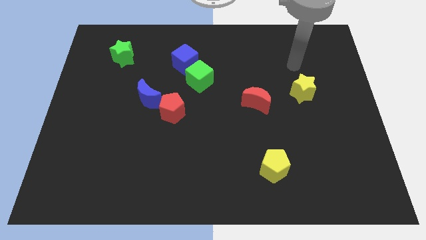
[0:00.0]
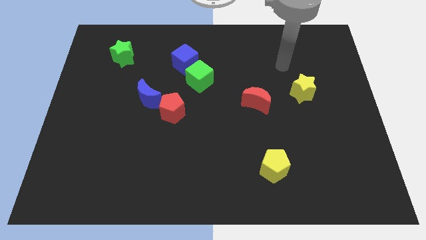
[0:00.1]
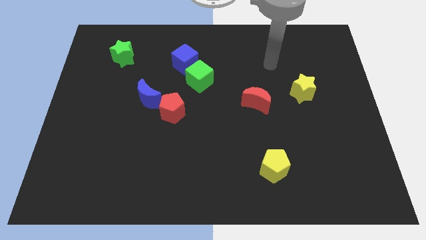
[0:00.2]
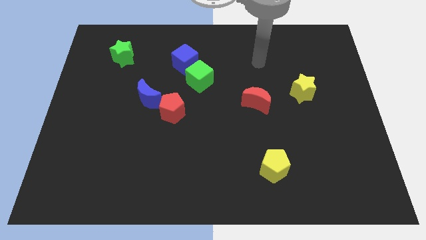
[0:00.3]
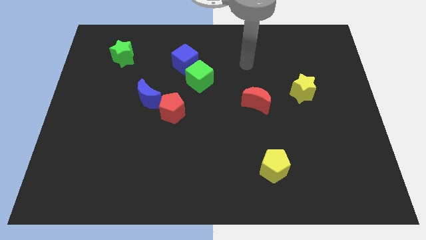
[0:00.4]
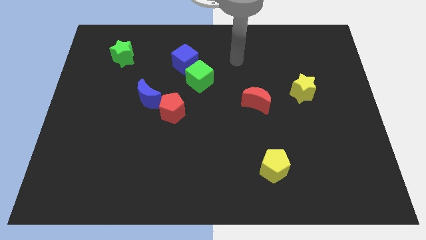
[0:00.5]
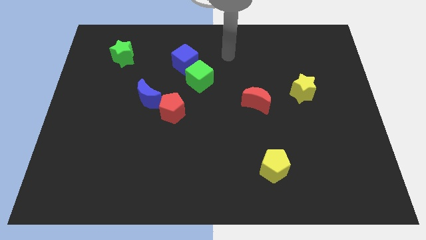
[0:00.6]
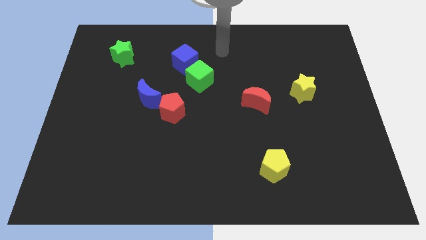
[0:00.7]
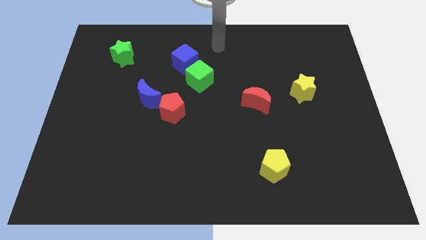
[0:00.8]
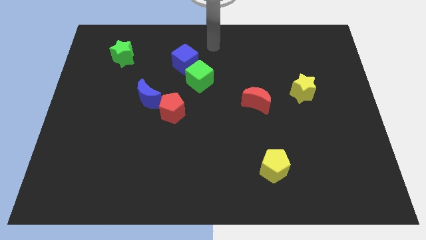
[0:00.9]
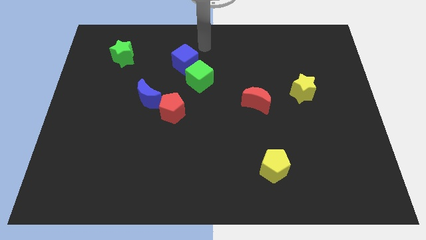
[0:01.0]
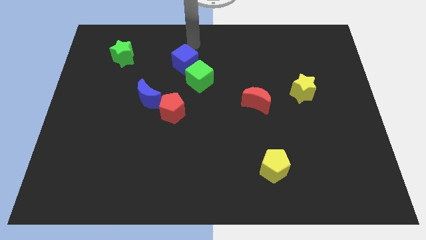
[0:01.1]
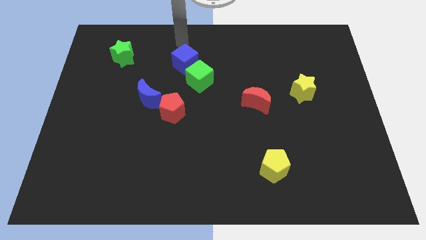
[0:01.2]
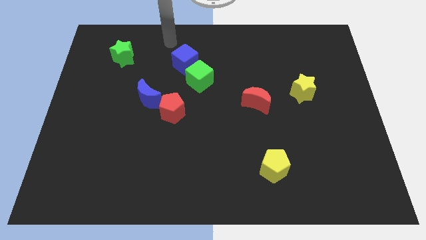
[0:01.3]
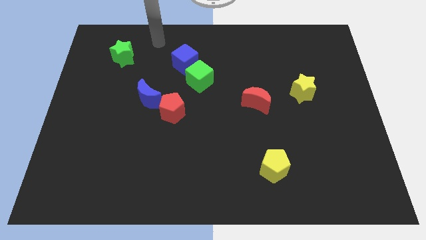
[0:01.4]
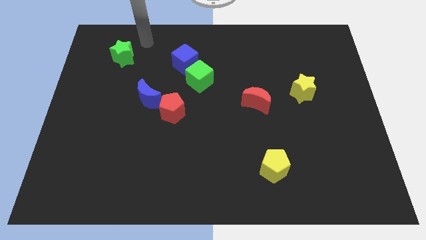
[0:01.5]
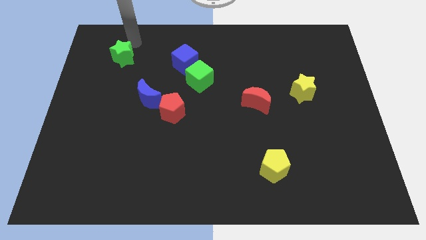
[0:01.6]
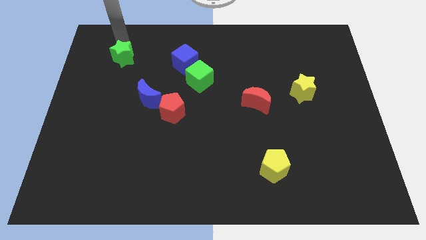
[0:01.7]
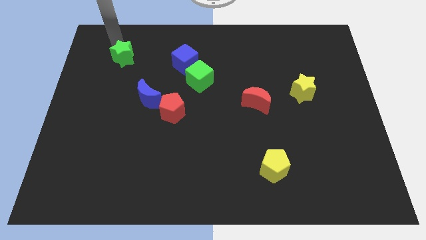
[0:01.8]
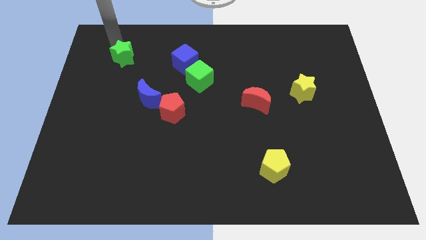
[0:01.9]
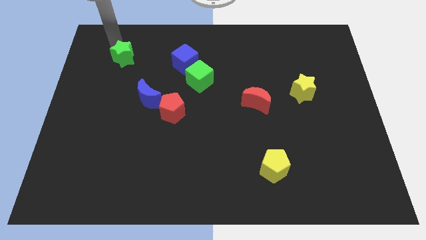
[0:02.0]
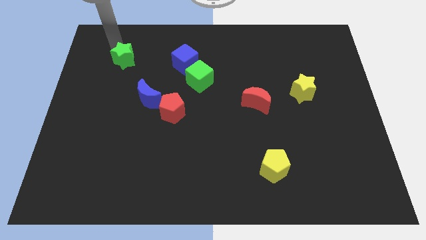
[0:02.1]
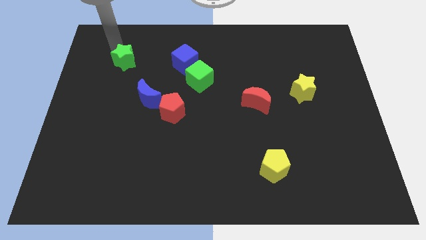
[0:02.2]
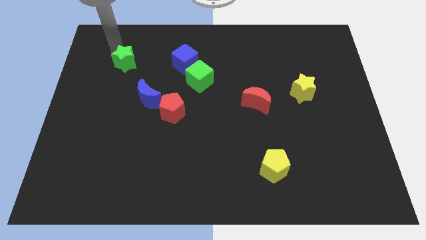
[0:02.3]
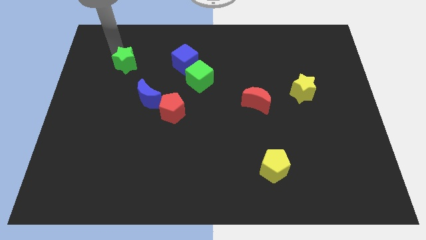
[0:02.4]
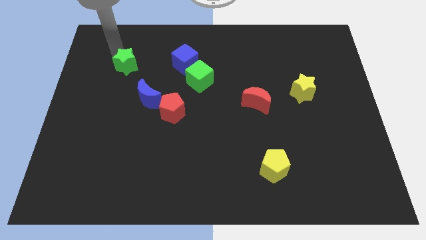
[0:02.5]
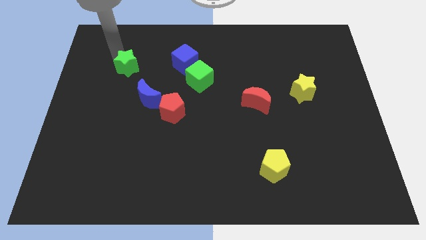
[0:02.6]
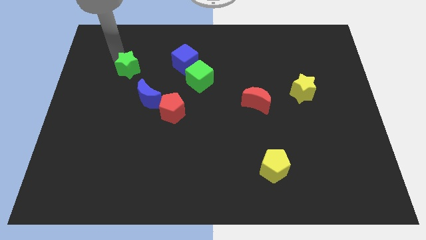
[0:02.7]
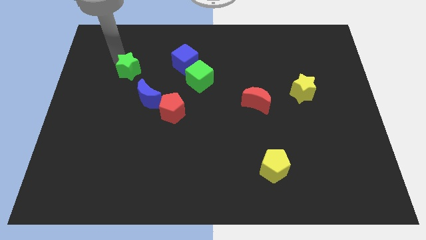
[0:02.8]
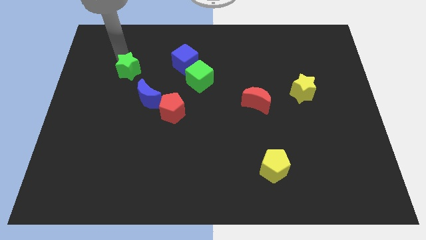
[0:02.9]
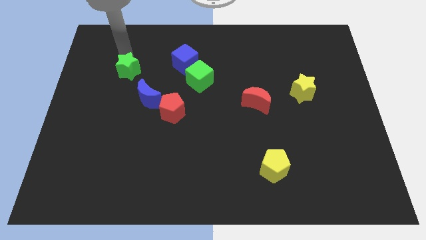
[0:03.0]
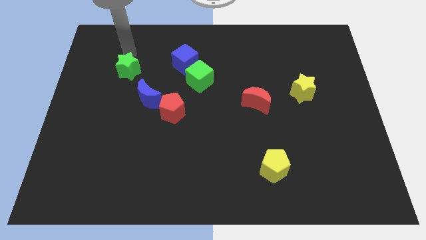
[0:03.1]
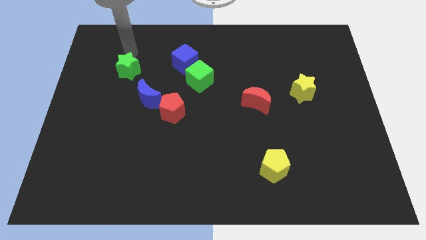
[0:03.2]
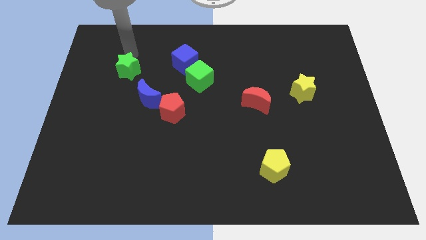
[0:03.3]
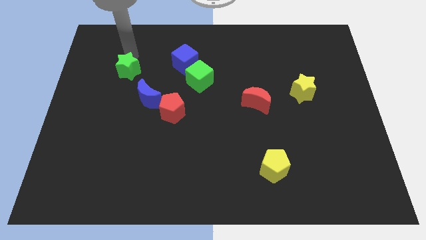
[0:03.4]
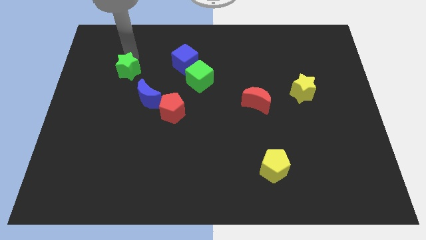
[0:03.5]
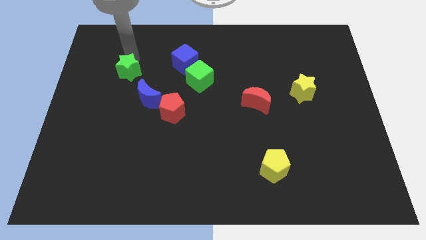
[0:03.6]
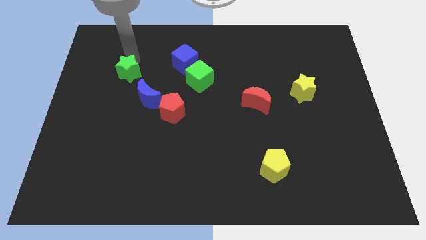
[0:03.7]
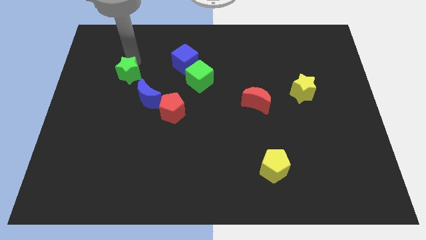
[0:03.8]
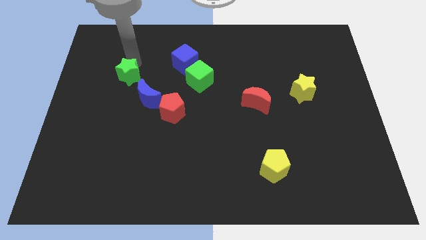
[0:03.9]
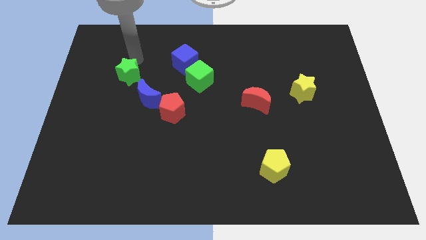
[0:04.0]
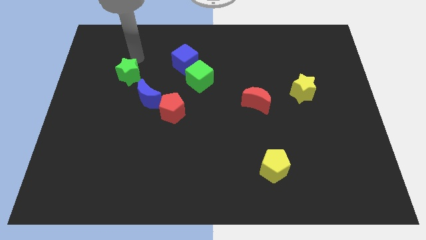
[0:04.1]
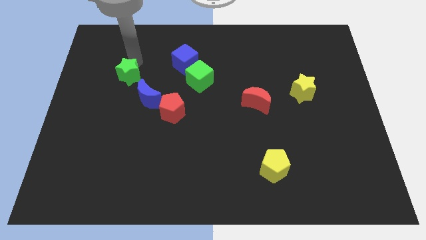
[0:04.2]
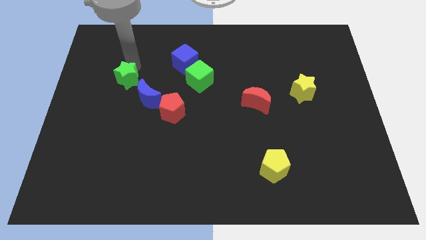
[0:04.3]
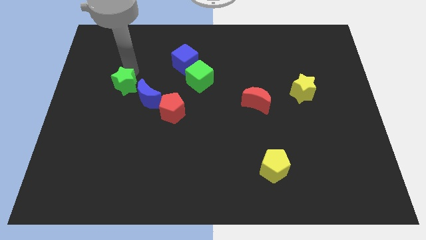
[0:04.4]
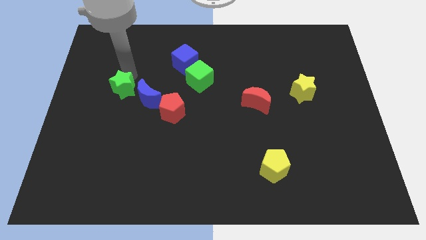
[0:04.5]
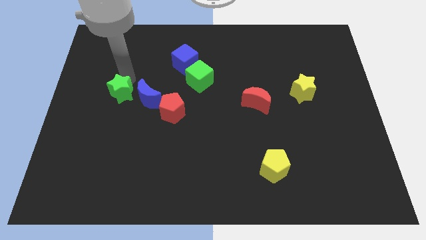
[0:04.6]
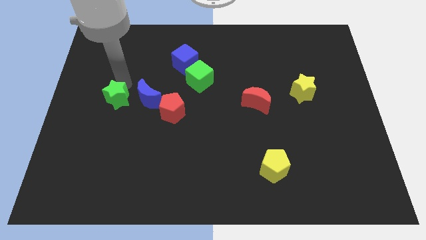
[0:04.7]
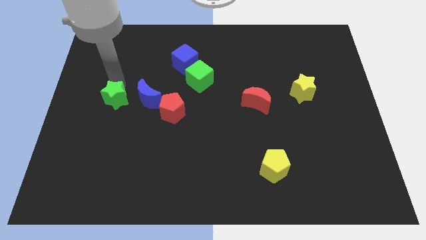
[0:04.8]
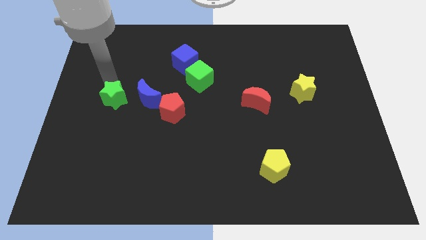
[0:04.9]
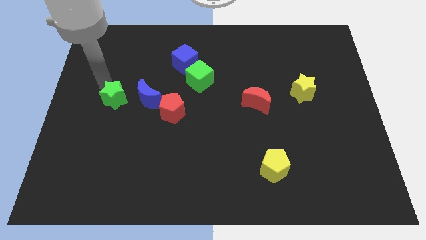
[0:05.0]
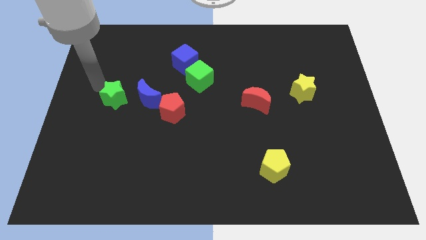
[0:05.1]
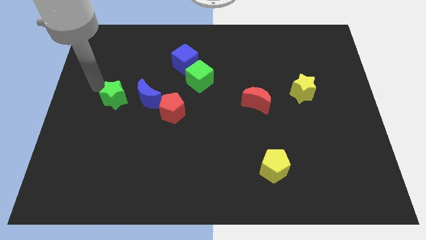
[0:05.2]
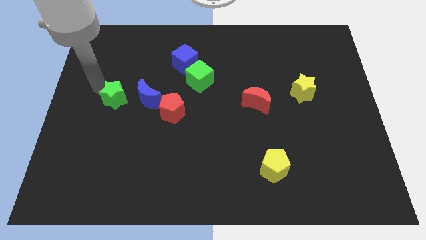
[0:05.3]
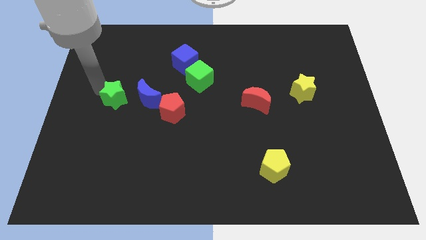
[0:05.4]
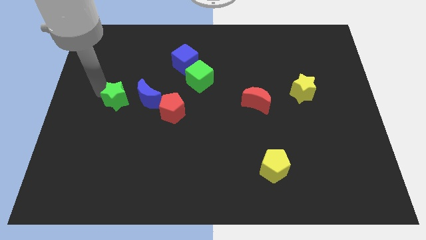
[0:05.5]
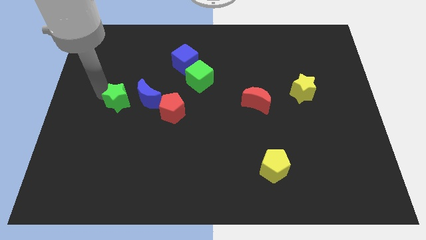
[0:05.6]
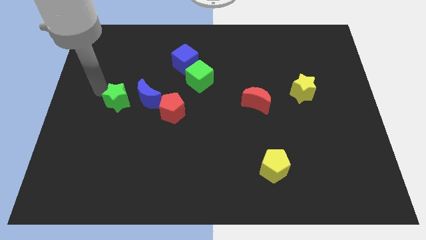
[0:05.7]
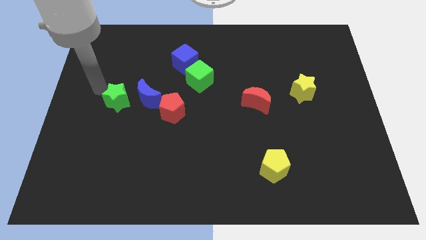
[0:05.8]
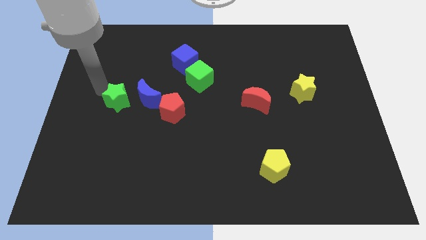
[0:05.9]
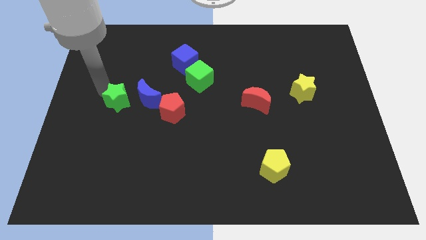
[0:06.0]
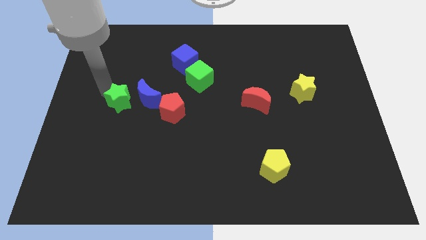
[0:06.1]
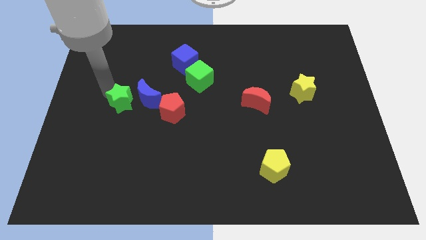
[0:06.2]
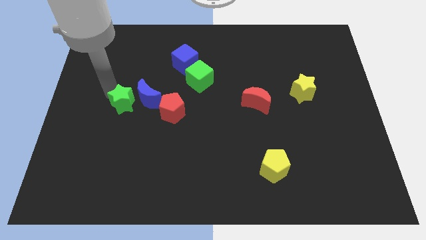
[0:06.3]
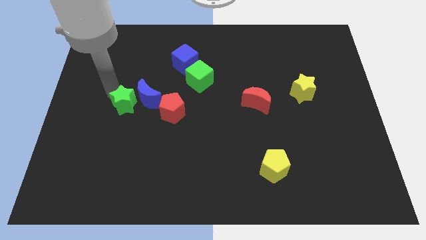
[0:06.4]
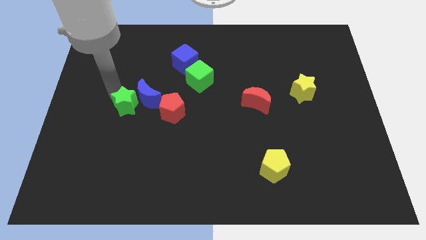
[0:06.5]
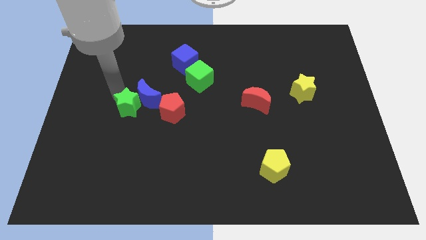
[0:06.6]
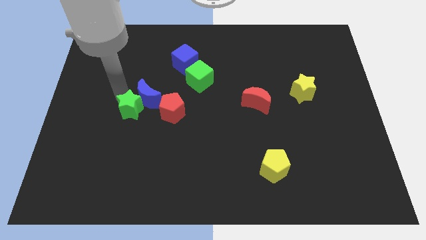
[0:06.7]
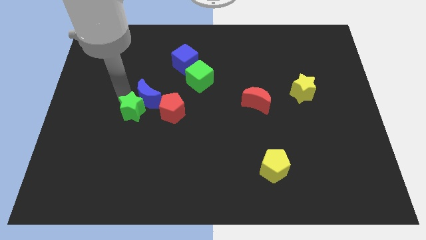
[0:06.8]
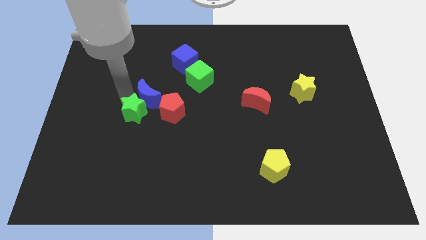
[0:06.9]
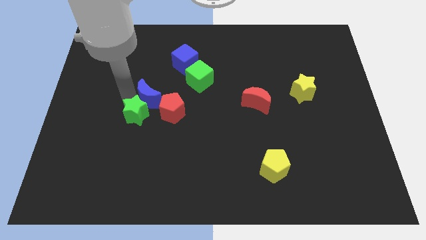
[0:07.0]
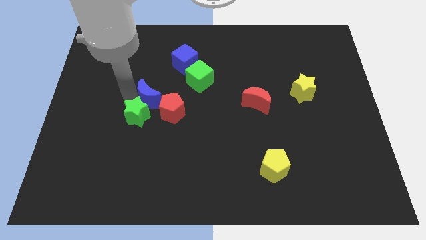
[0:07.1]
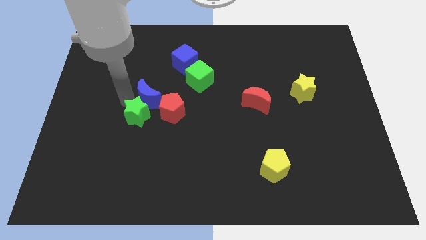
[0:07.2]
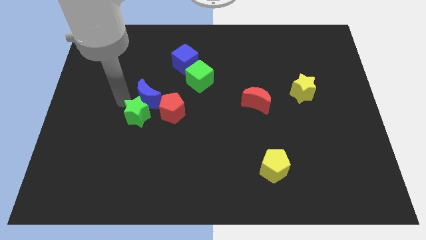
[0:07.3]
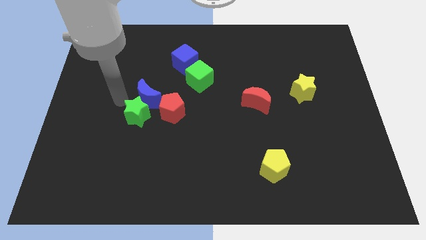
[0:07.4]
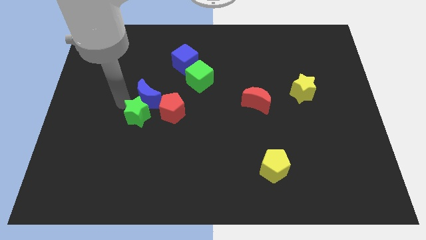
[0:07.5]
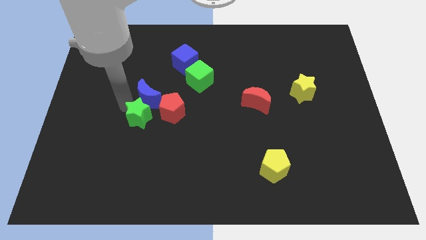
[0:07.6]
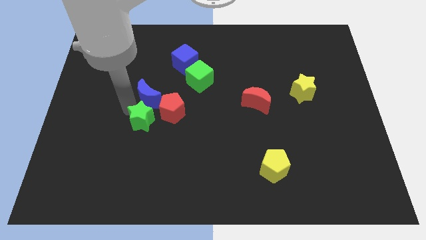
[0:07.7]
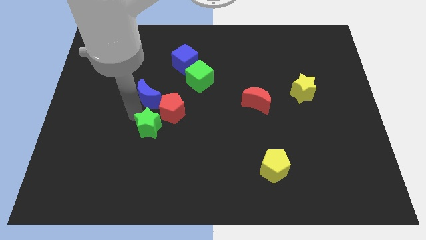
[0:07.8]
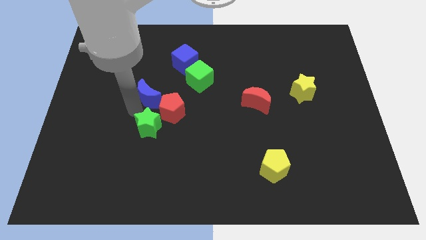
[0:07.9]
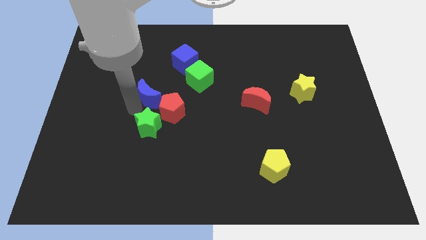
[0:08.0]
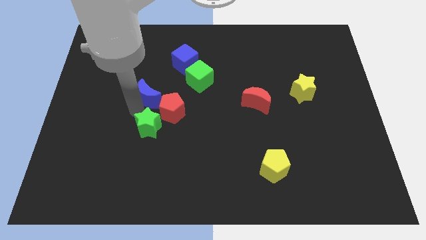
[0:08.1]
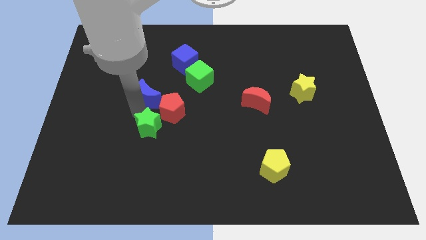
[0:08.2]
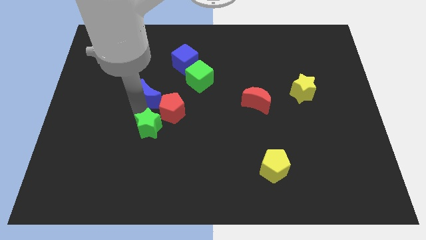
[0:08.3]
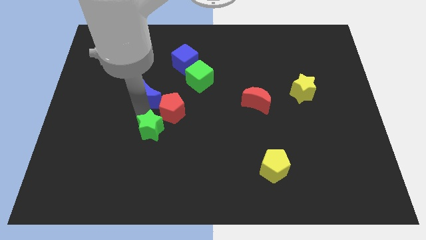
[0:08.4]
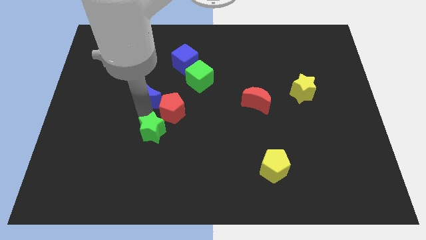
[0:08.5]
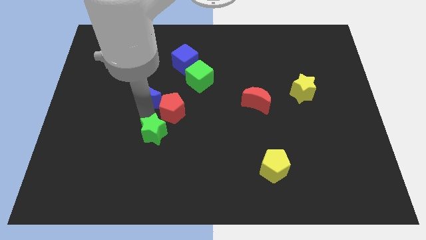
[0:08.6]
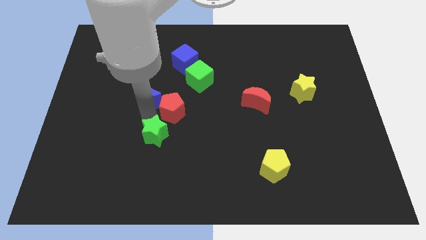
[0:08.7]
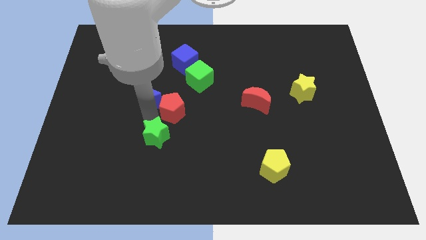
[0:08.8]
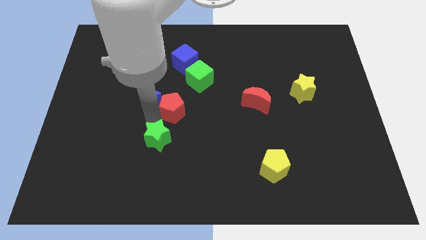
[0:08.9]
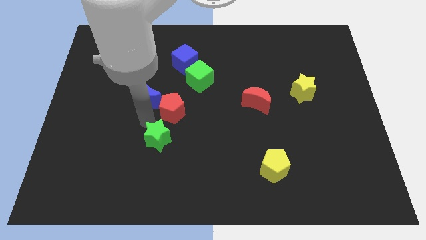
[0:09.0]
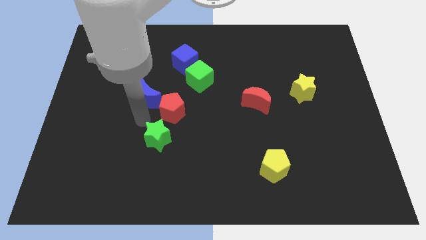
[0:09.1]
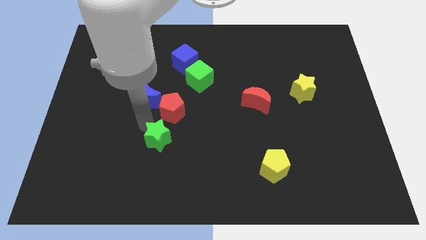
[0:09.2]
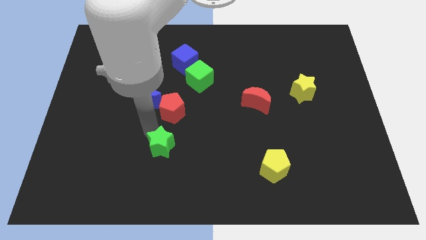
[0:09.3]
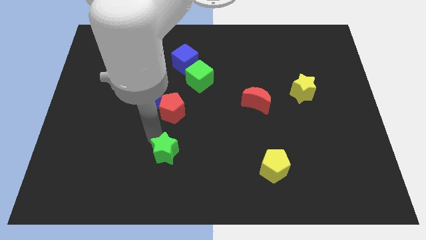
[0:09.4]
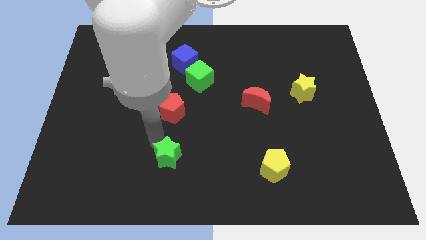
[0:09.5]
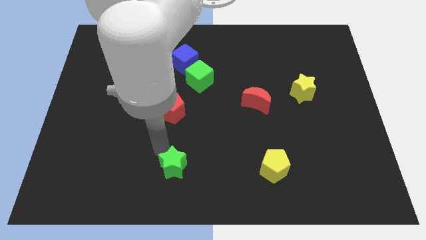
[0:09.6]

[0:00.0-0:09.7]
push the green star to the bottom side
